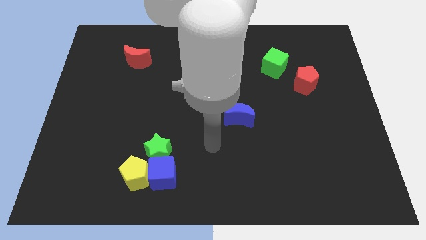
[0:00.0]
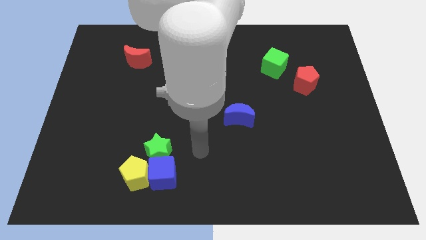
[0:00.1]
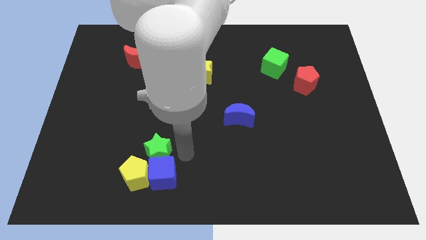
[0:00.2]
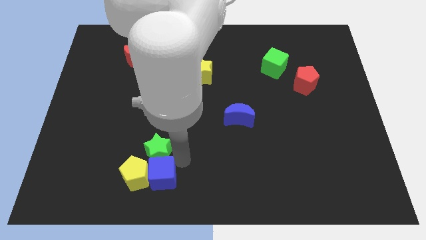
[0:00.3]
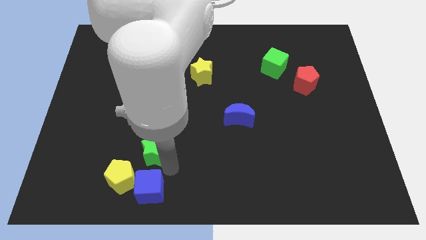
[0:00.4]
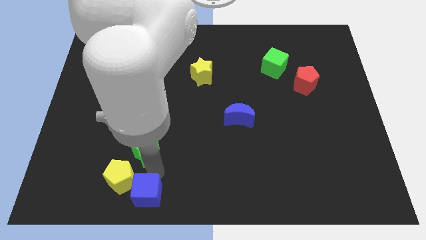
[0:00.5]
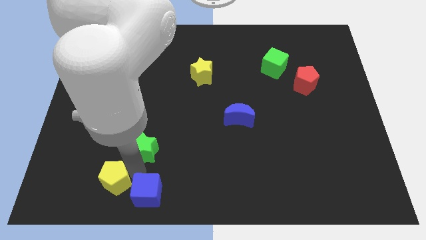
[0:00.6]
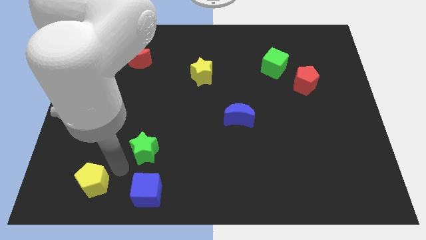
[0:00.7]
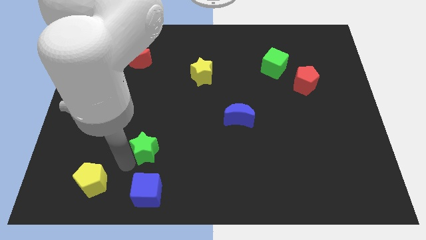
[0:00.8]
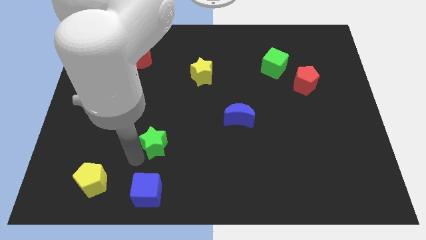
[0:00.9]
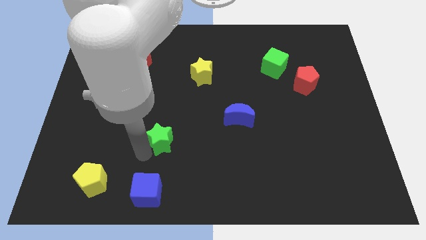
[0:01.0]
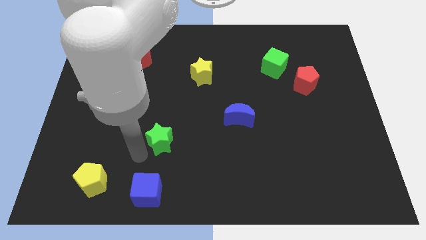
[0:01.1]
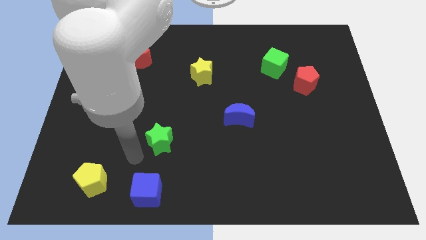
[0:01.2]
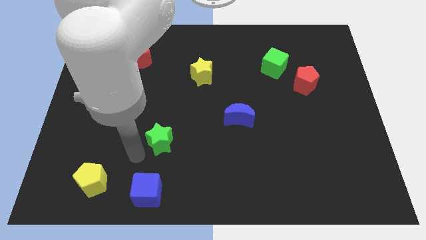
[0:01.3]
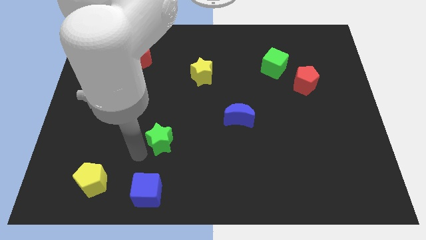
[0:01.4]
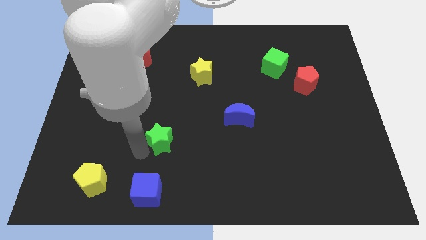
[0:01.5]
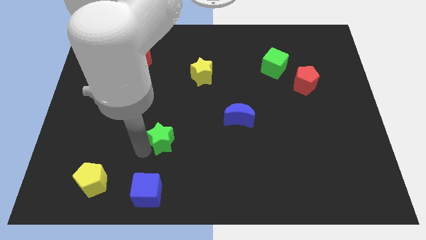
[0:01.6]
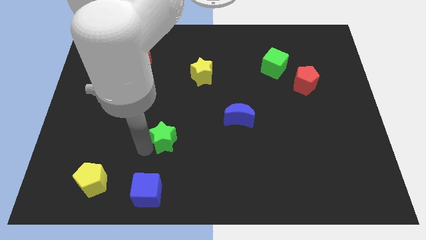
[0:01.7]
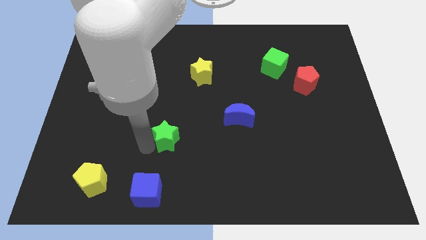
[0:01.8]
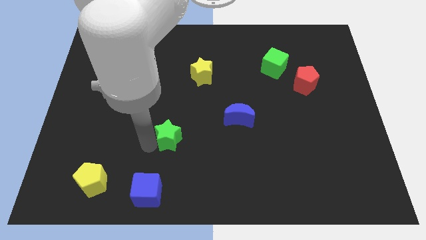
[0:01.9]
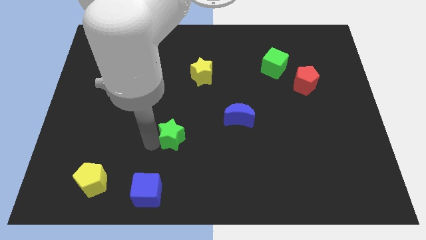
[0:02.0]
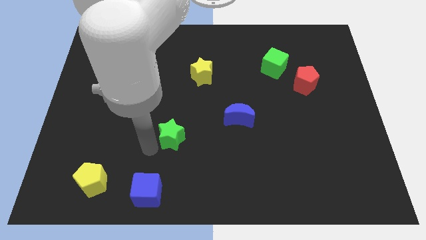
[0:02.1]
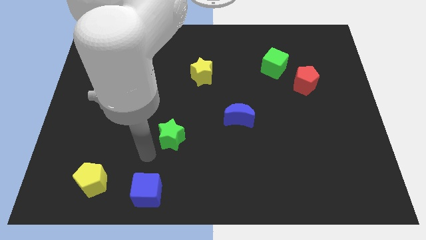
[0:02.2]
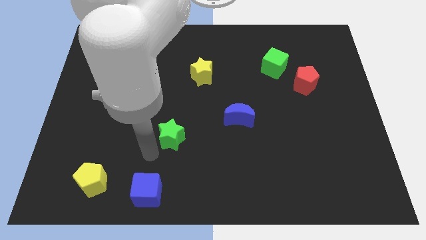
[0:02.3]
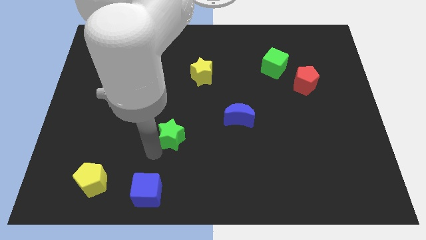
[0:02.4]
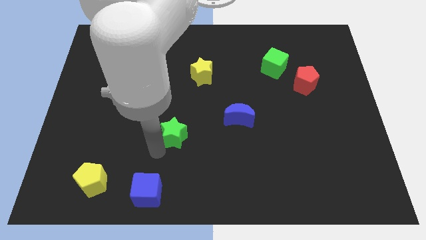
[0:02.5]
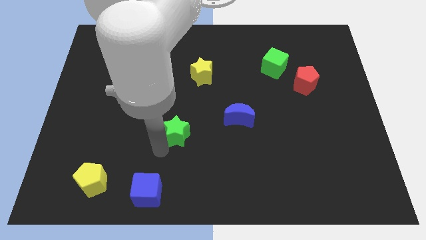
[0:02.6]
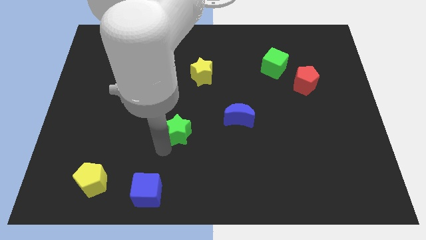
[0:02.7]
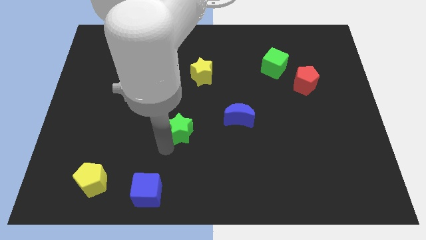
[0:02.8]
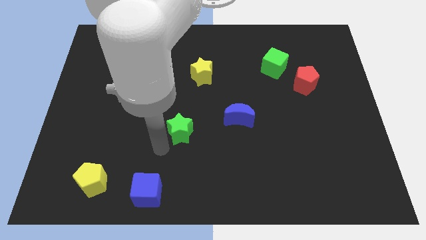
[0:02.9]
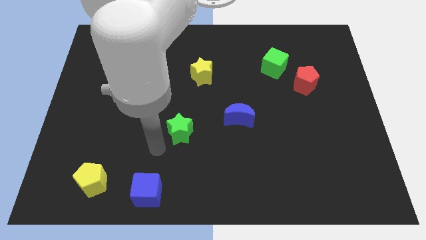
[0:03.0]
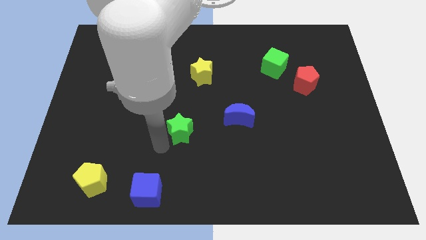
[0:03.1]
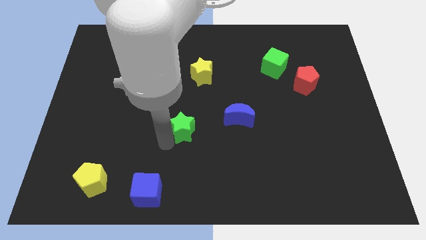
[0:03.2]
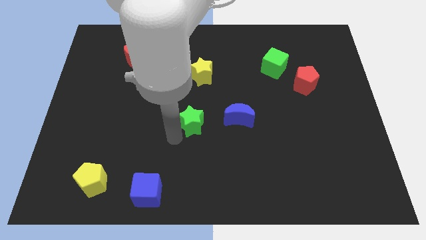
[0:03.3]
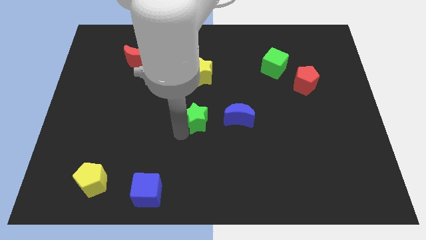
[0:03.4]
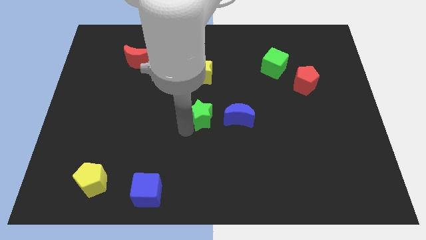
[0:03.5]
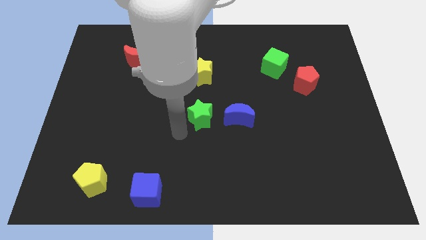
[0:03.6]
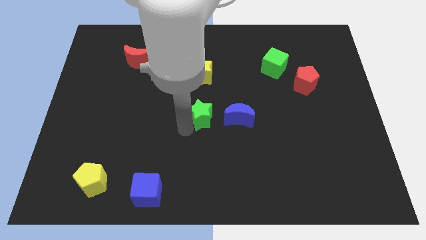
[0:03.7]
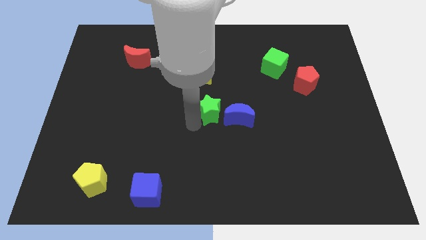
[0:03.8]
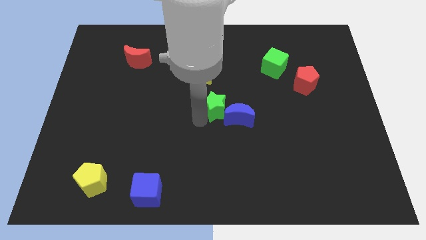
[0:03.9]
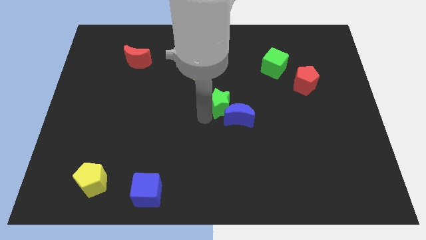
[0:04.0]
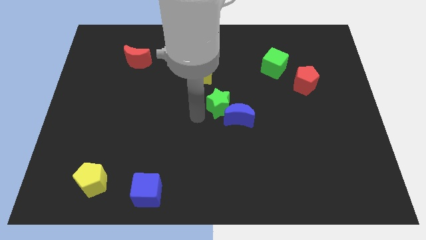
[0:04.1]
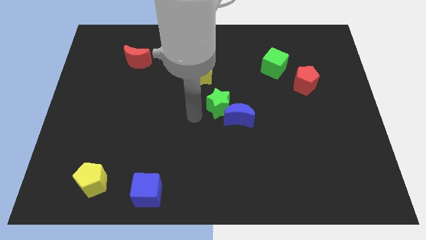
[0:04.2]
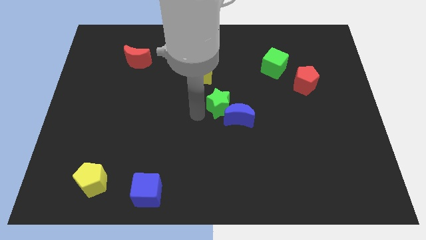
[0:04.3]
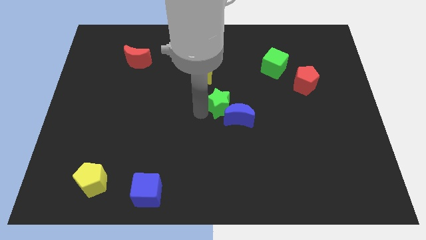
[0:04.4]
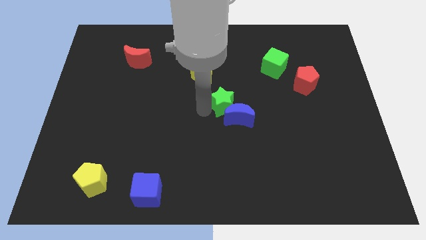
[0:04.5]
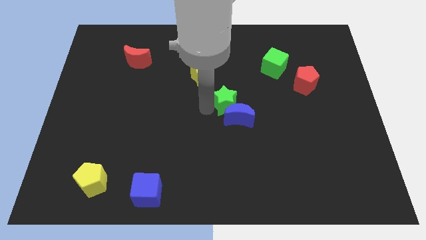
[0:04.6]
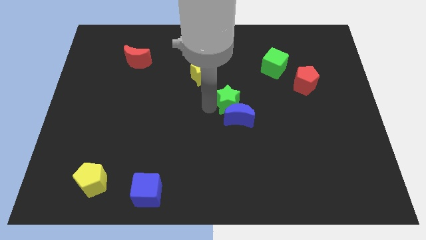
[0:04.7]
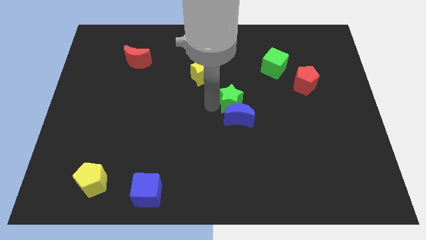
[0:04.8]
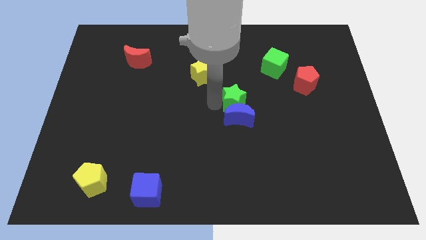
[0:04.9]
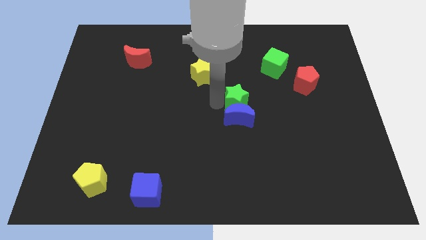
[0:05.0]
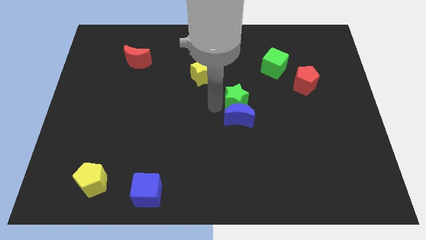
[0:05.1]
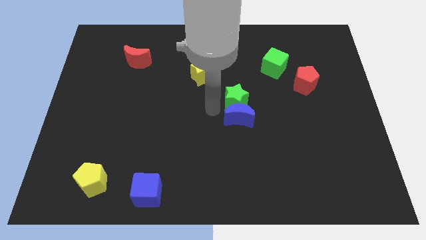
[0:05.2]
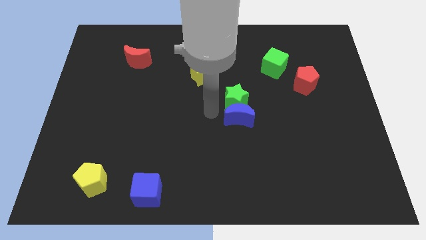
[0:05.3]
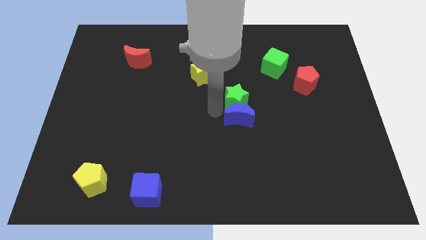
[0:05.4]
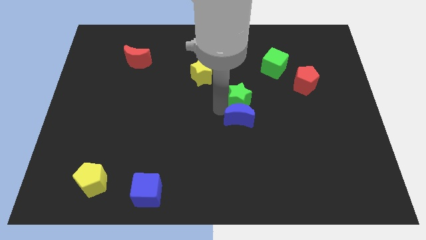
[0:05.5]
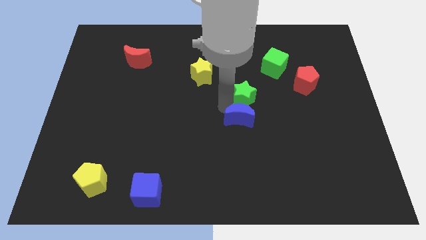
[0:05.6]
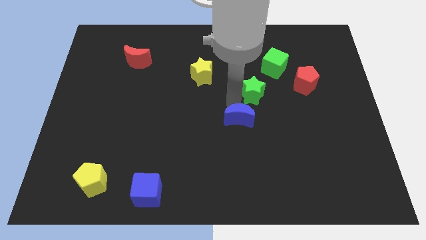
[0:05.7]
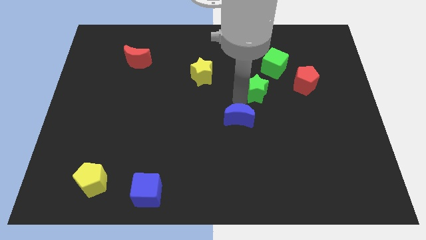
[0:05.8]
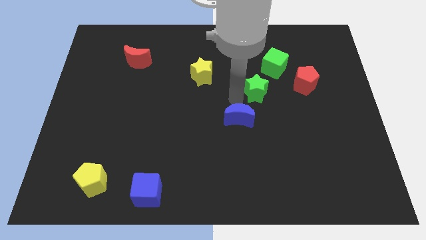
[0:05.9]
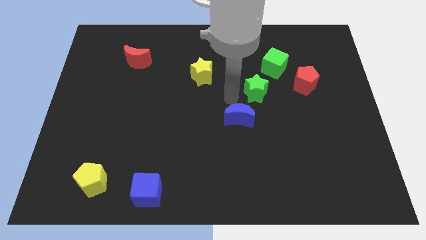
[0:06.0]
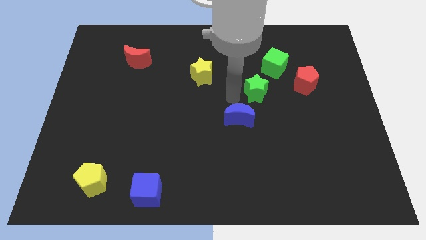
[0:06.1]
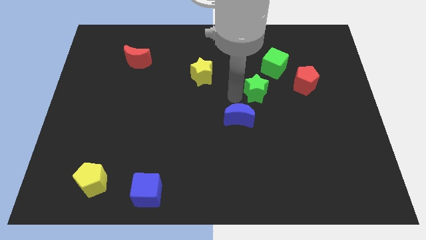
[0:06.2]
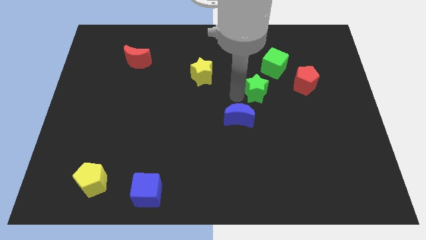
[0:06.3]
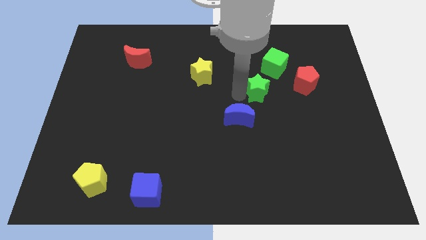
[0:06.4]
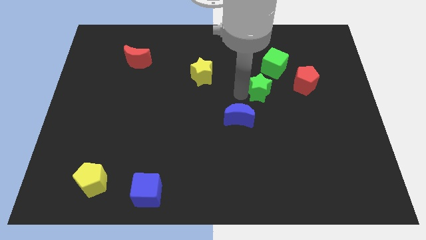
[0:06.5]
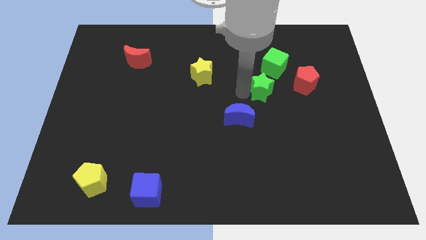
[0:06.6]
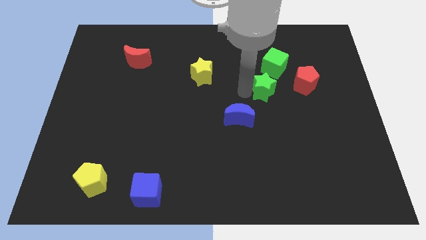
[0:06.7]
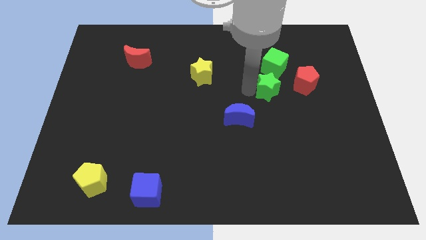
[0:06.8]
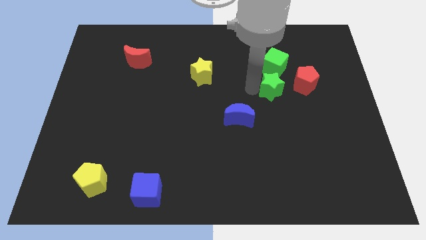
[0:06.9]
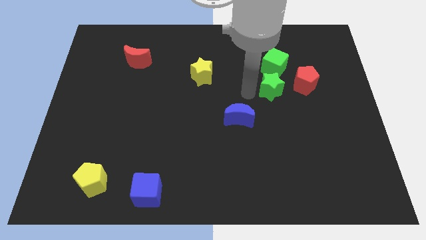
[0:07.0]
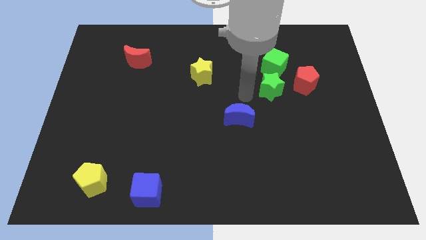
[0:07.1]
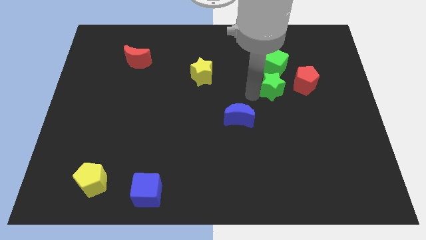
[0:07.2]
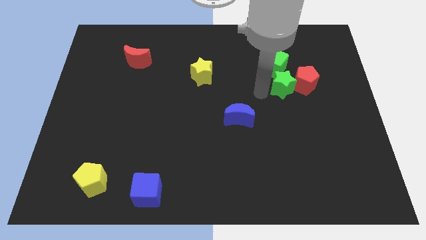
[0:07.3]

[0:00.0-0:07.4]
move the green star towards the red pentagon
